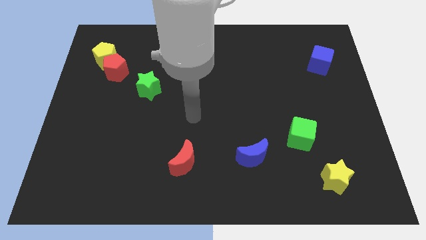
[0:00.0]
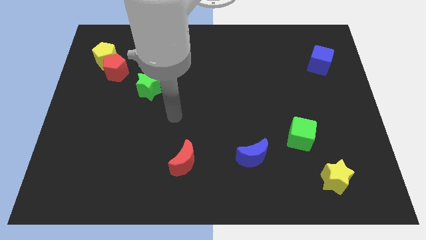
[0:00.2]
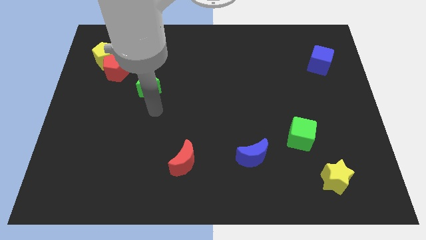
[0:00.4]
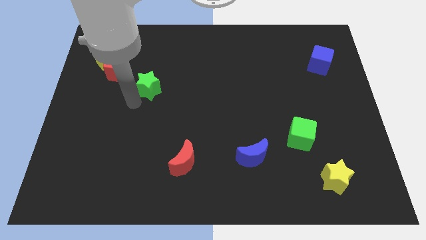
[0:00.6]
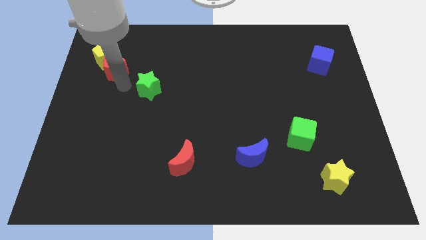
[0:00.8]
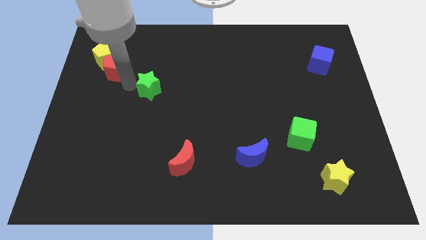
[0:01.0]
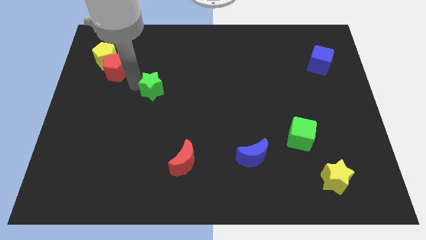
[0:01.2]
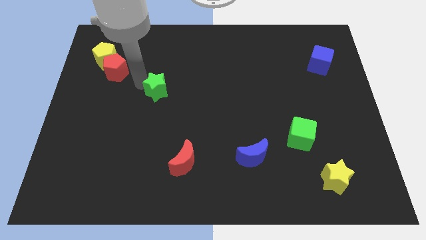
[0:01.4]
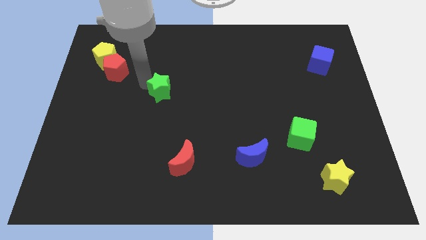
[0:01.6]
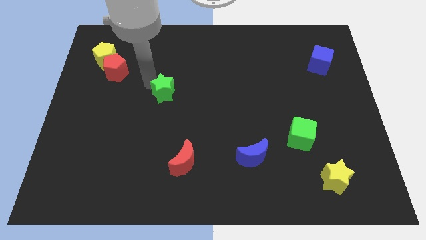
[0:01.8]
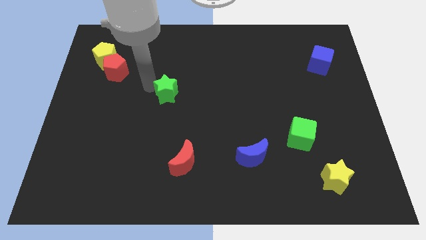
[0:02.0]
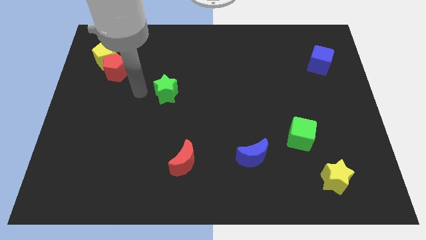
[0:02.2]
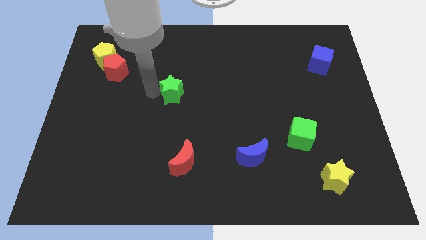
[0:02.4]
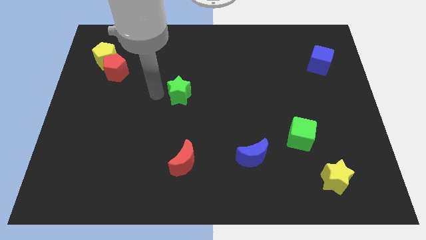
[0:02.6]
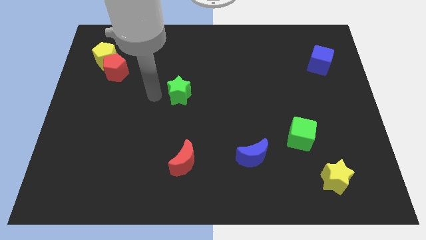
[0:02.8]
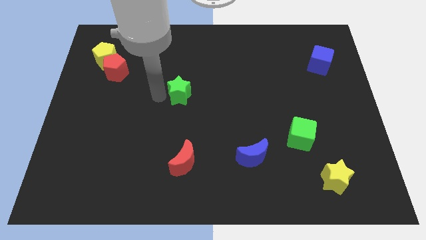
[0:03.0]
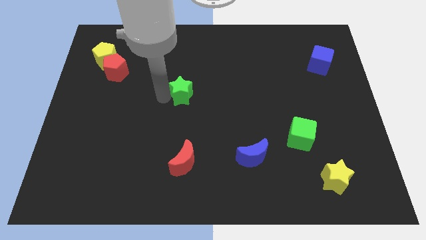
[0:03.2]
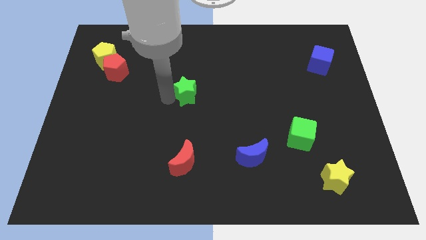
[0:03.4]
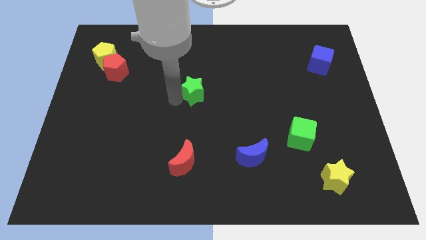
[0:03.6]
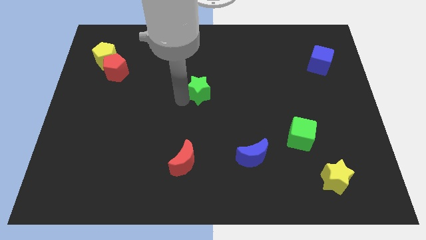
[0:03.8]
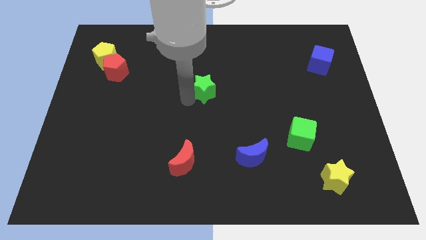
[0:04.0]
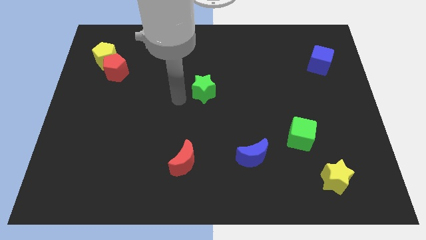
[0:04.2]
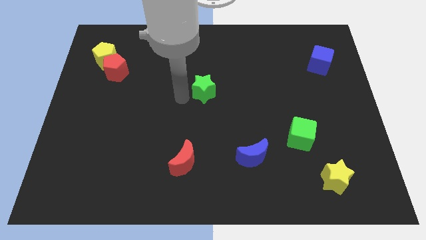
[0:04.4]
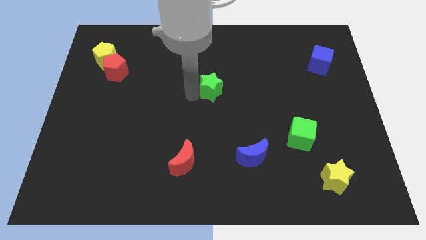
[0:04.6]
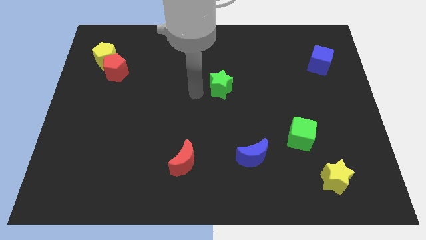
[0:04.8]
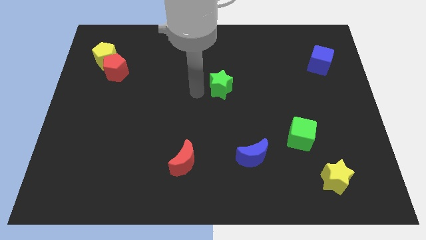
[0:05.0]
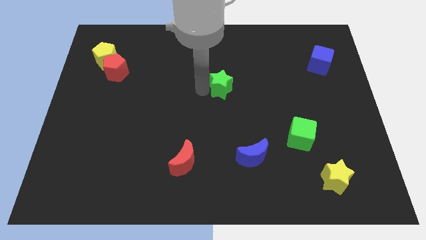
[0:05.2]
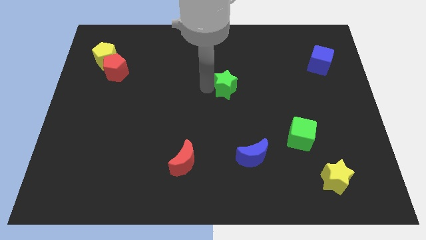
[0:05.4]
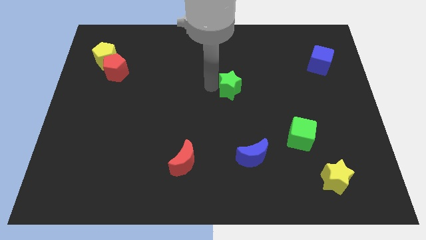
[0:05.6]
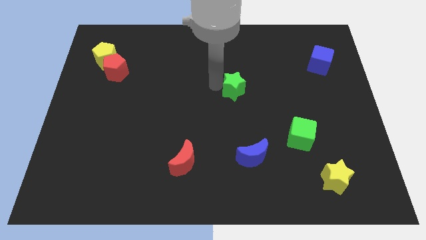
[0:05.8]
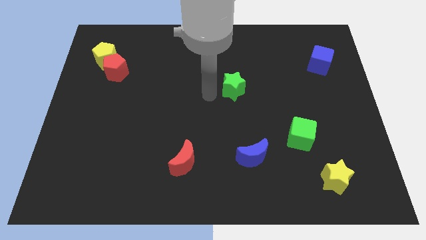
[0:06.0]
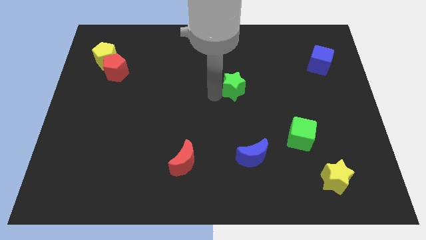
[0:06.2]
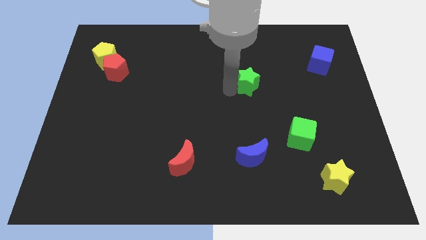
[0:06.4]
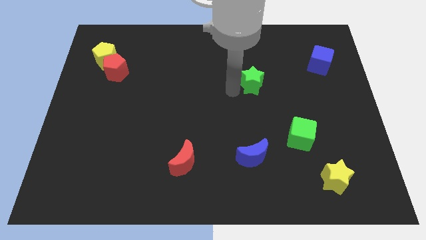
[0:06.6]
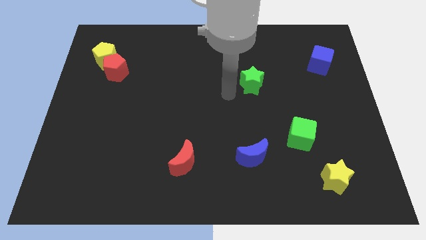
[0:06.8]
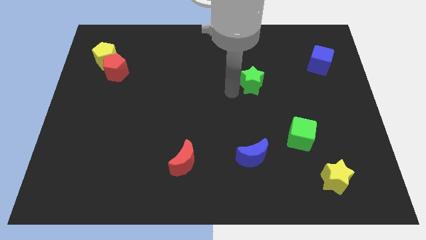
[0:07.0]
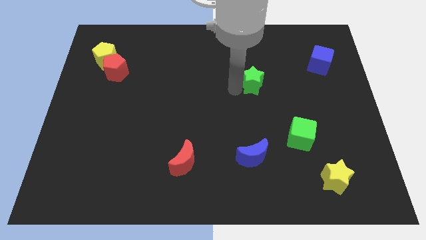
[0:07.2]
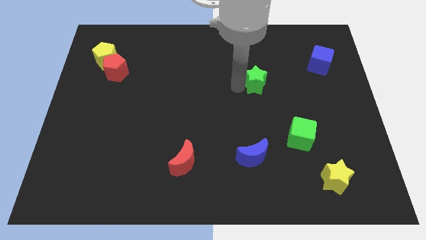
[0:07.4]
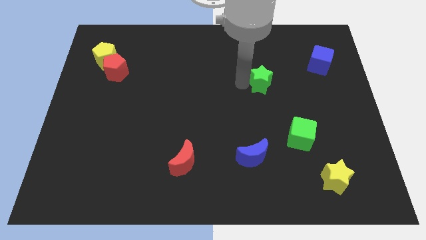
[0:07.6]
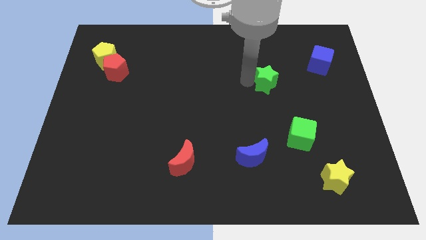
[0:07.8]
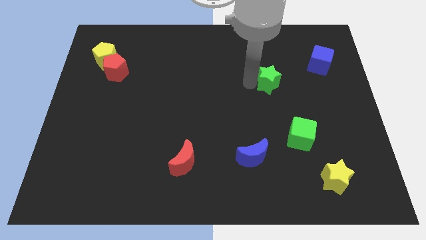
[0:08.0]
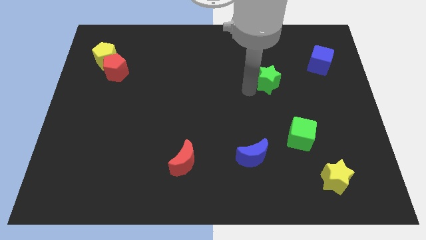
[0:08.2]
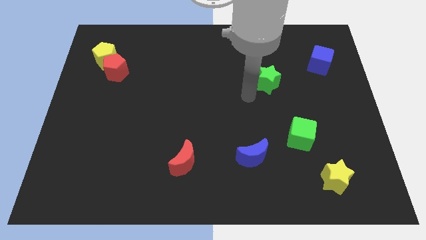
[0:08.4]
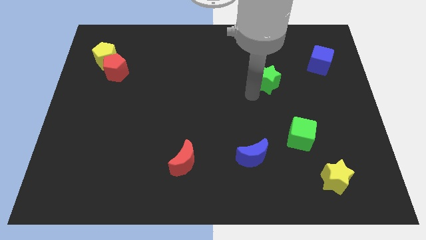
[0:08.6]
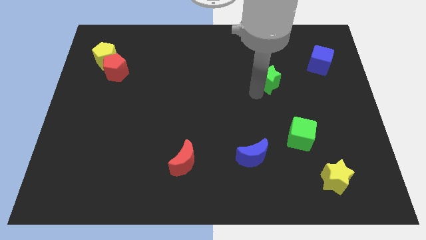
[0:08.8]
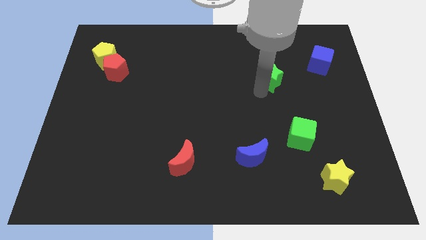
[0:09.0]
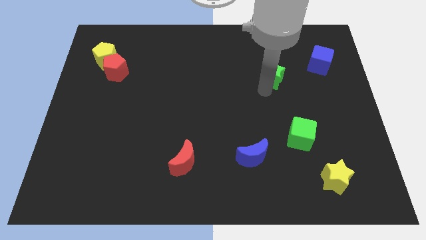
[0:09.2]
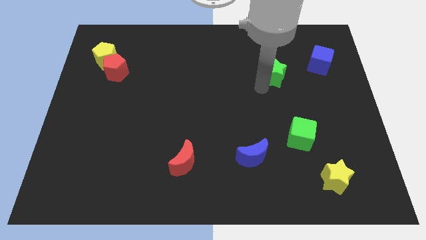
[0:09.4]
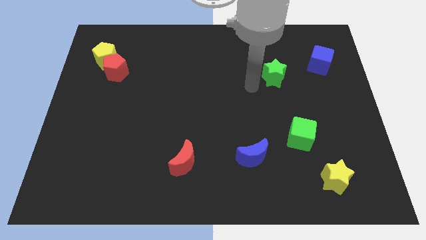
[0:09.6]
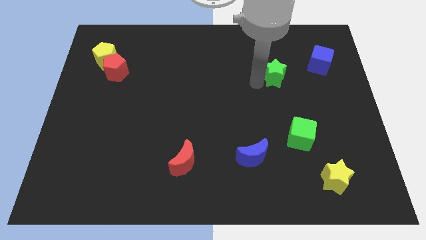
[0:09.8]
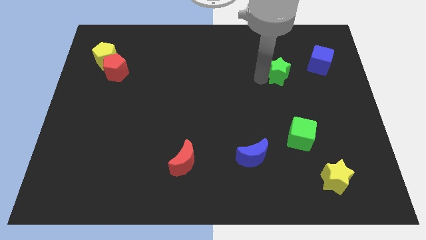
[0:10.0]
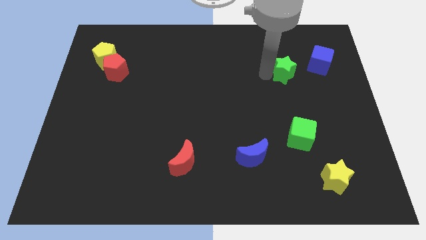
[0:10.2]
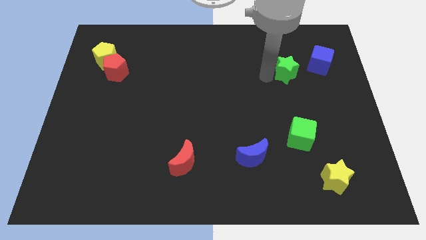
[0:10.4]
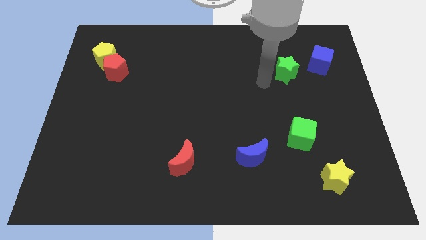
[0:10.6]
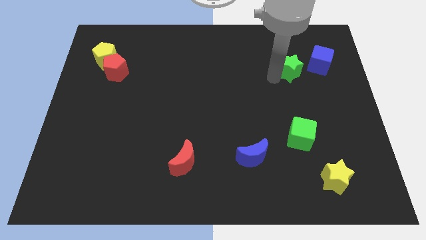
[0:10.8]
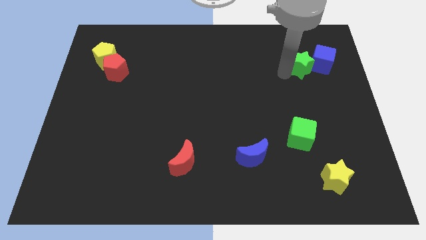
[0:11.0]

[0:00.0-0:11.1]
push the green star towards the blue cube

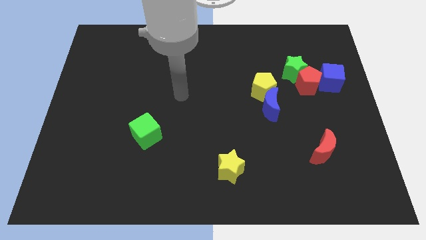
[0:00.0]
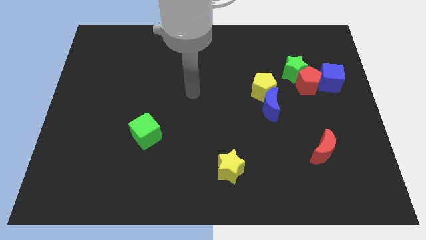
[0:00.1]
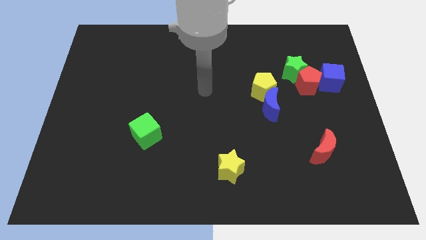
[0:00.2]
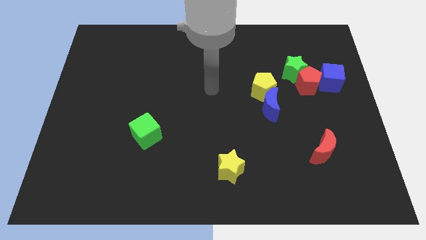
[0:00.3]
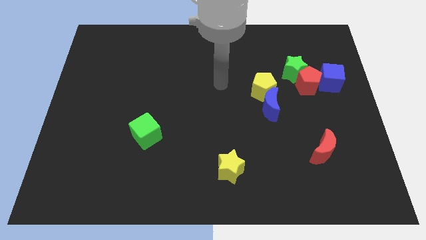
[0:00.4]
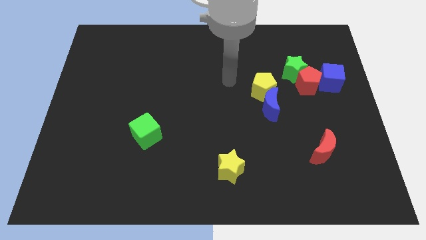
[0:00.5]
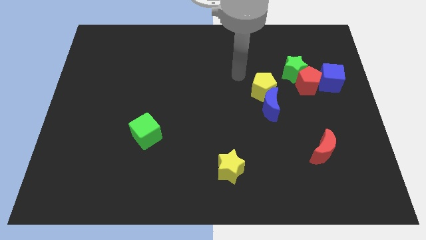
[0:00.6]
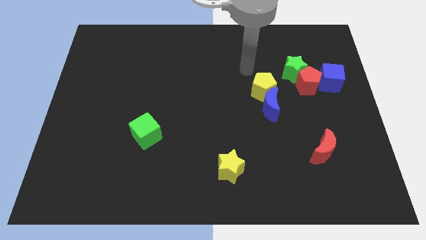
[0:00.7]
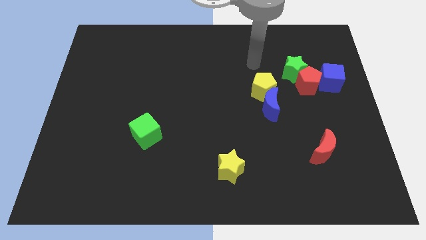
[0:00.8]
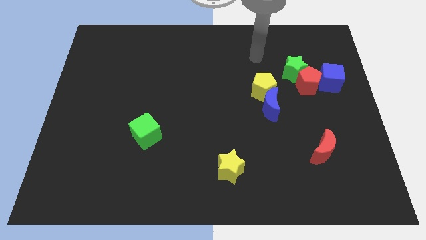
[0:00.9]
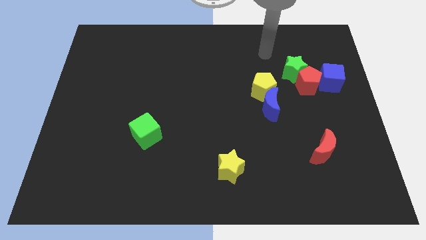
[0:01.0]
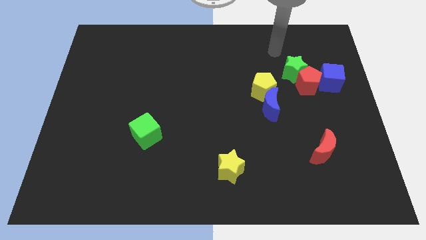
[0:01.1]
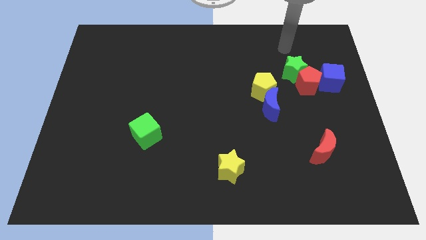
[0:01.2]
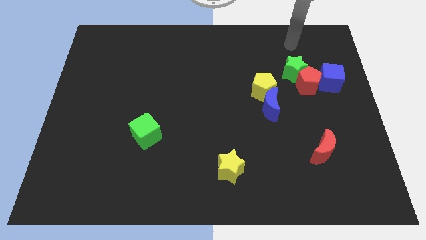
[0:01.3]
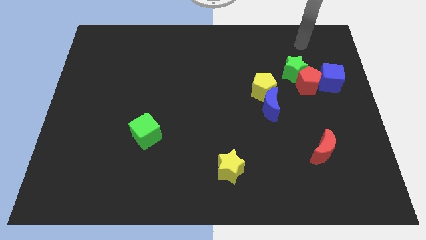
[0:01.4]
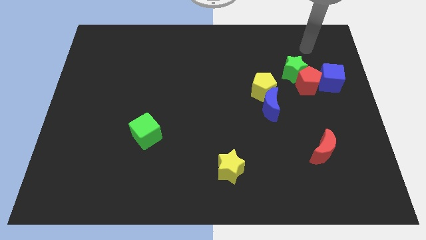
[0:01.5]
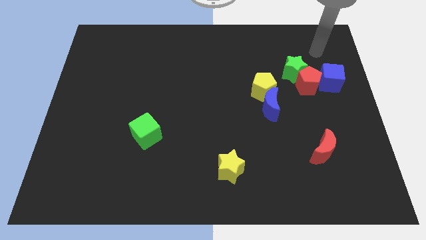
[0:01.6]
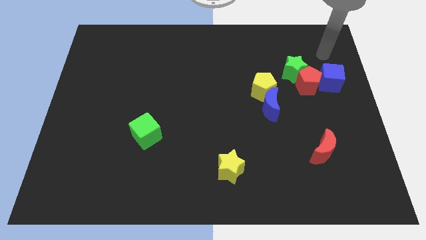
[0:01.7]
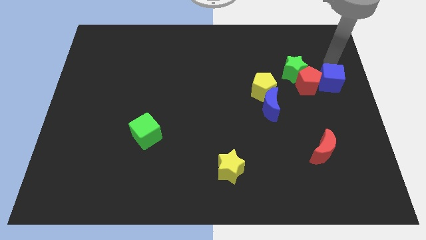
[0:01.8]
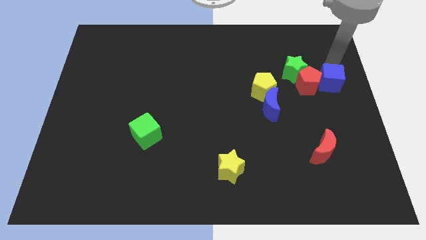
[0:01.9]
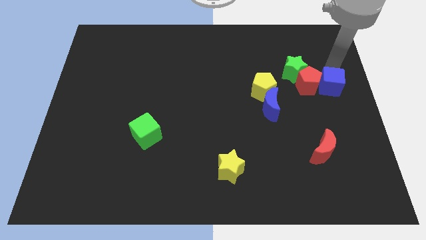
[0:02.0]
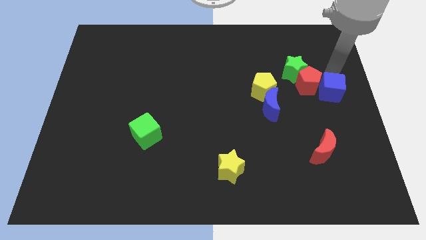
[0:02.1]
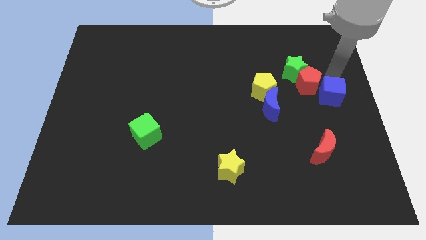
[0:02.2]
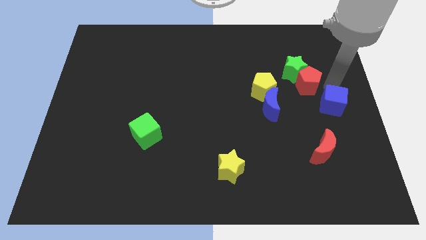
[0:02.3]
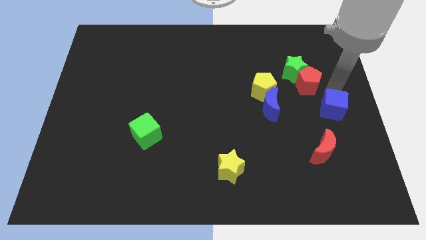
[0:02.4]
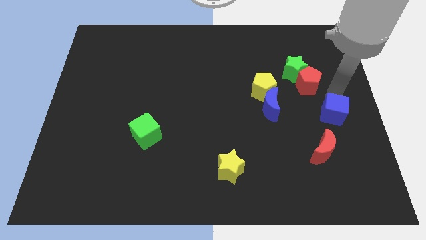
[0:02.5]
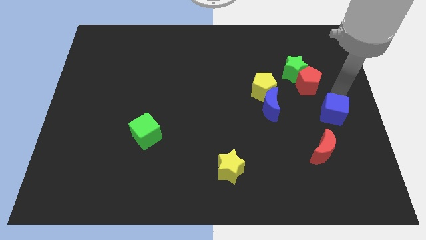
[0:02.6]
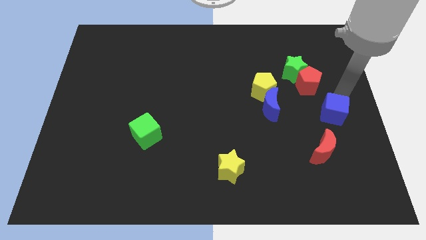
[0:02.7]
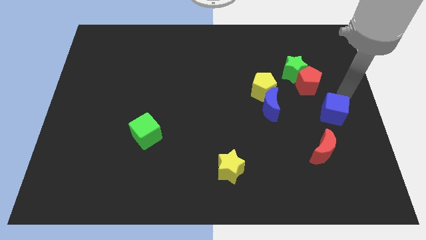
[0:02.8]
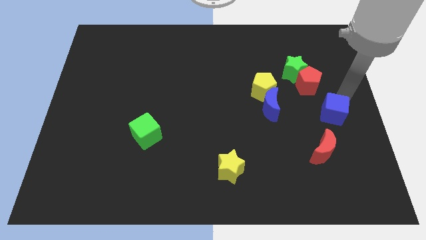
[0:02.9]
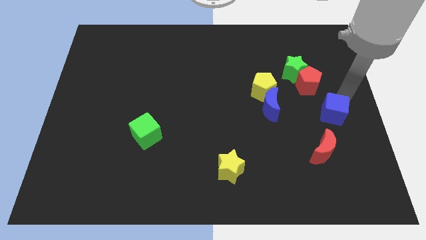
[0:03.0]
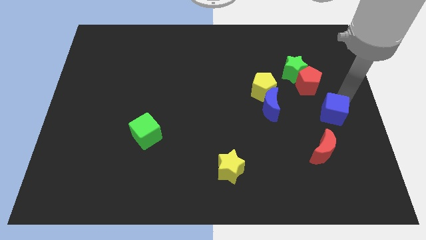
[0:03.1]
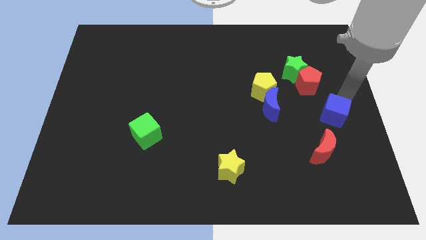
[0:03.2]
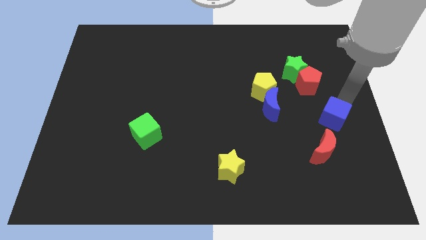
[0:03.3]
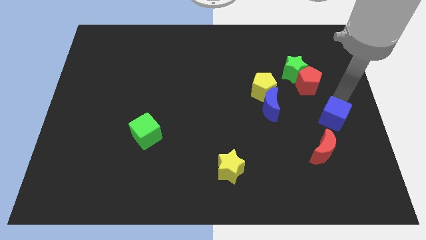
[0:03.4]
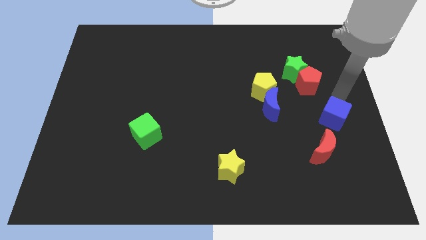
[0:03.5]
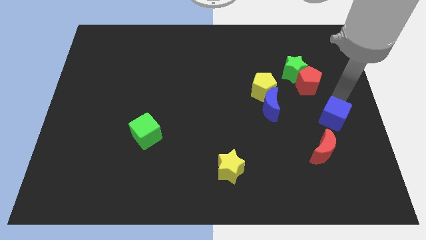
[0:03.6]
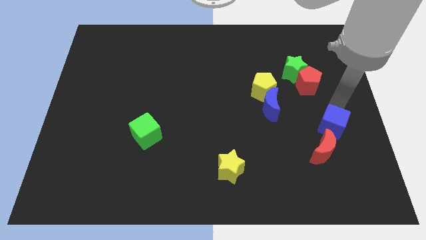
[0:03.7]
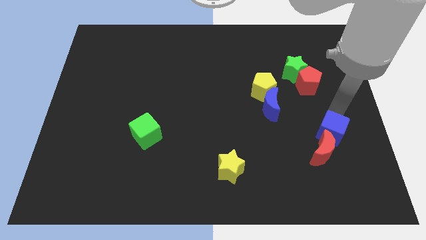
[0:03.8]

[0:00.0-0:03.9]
put the blue cube towards the red moon
